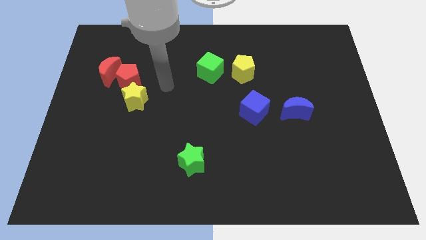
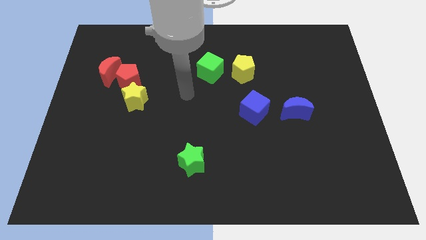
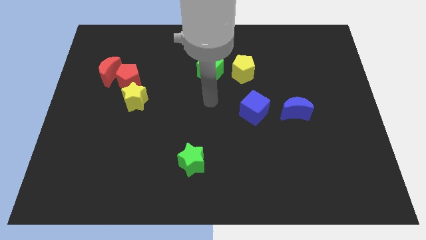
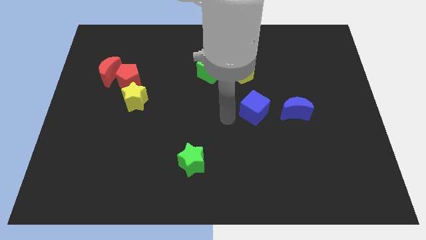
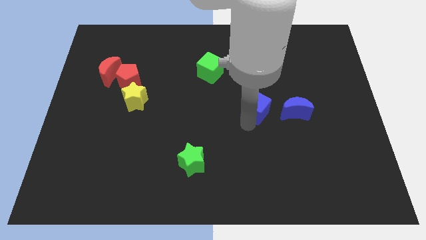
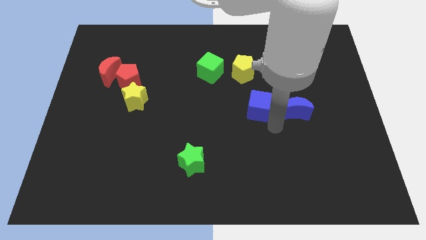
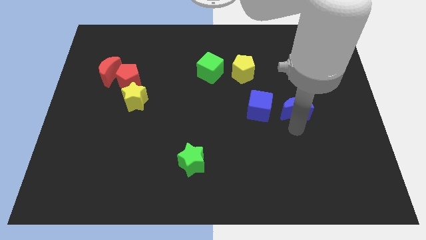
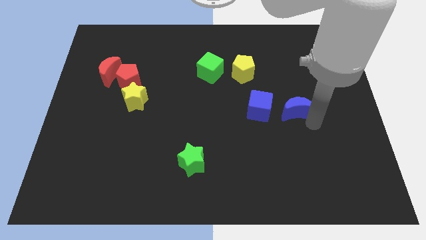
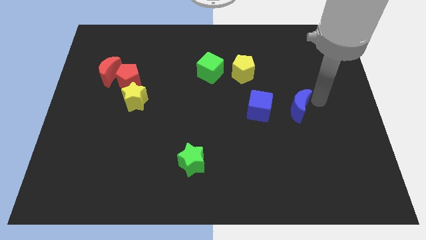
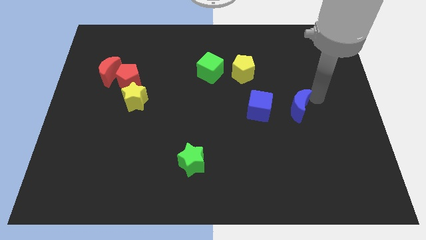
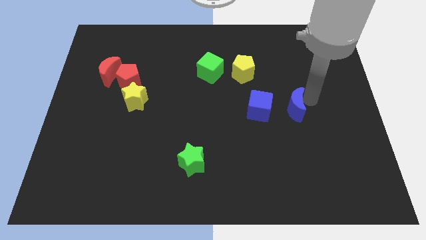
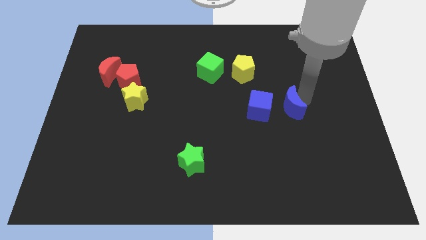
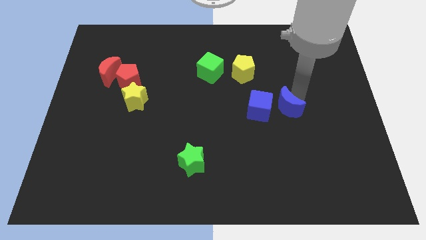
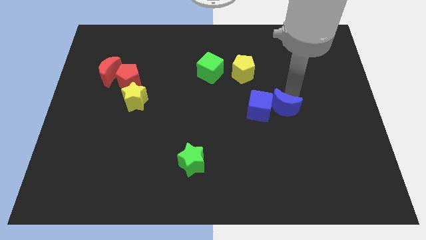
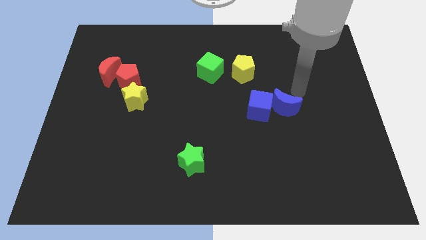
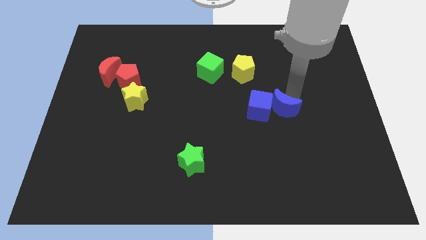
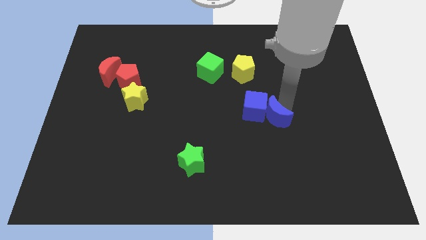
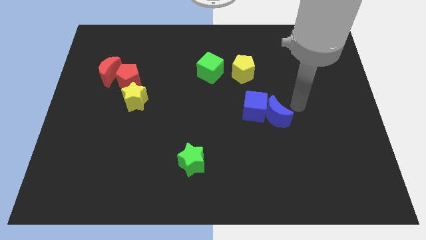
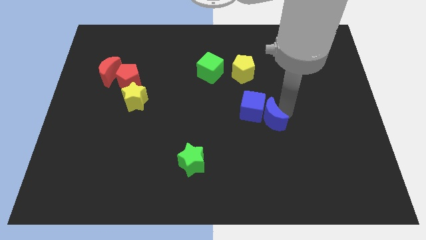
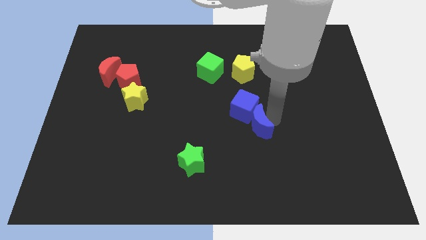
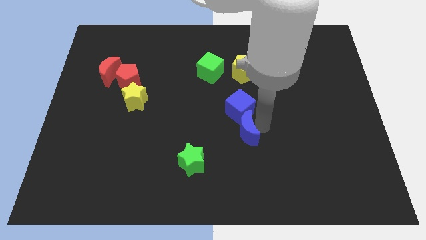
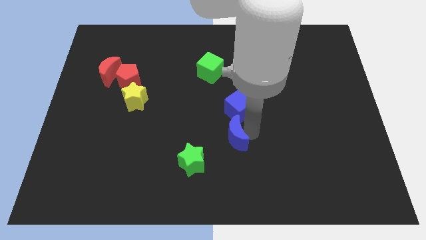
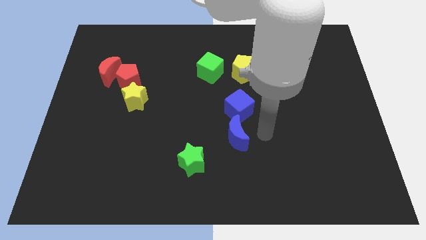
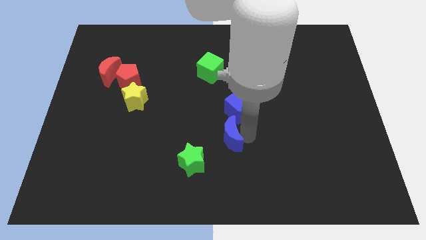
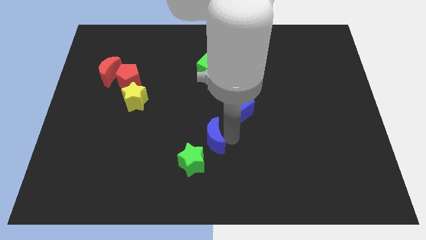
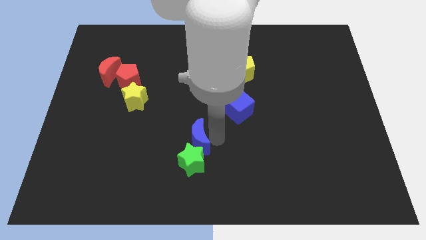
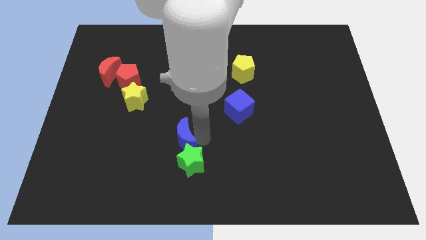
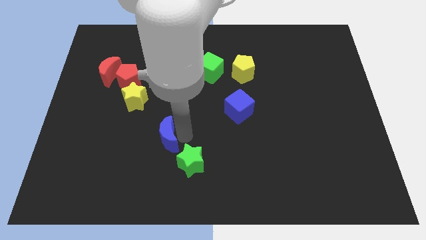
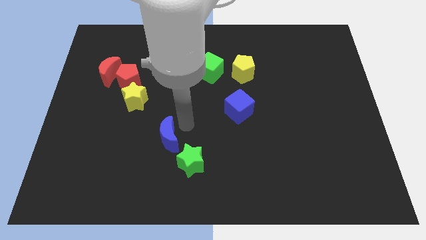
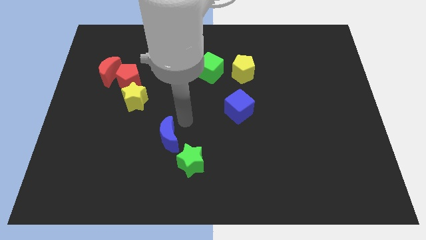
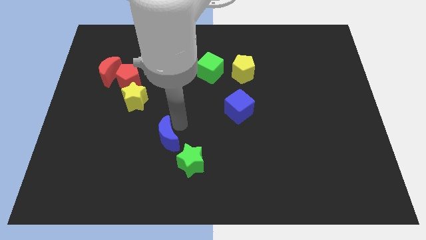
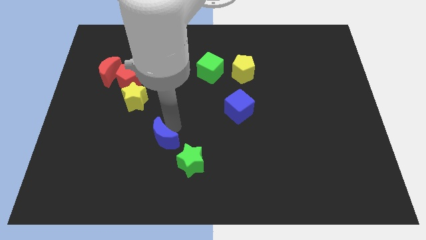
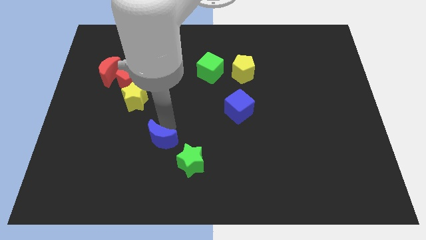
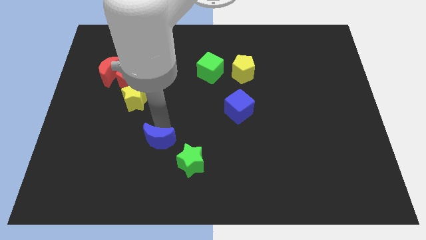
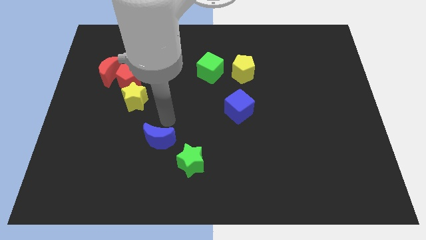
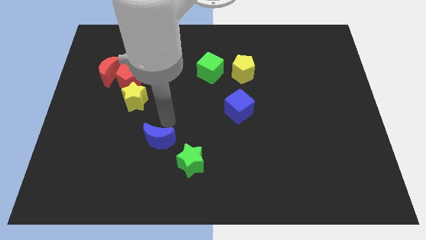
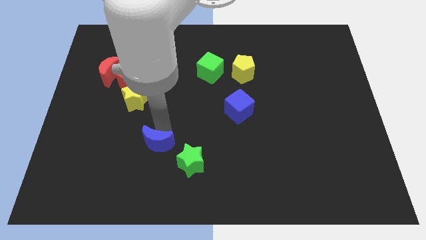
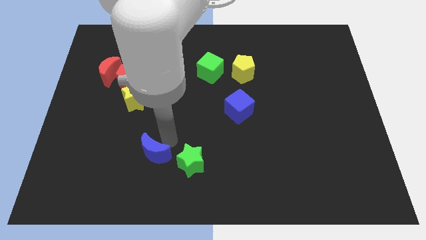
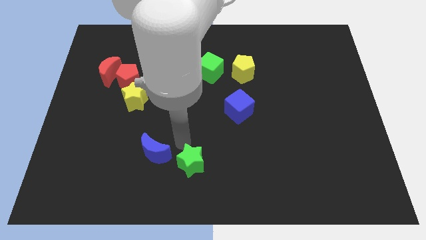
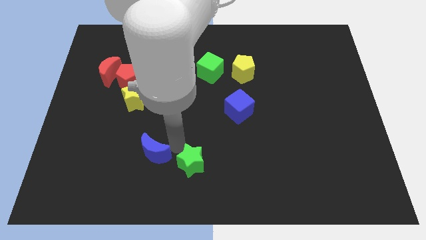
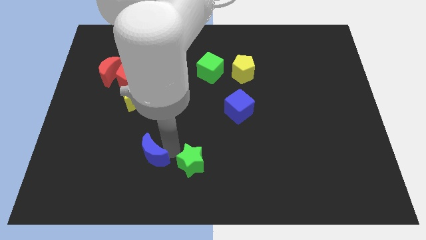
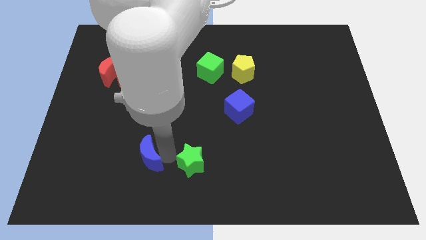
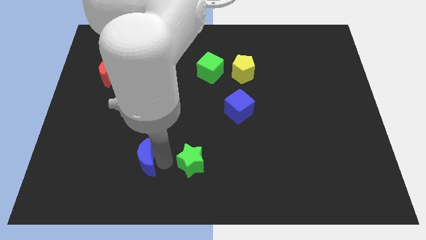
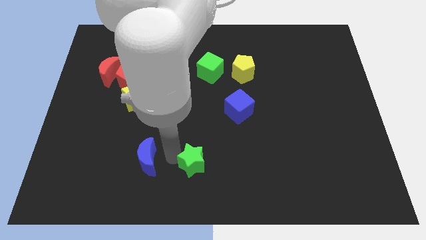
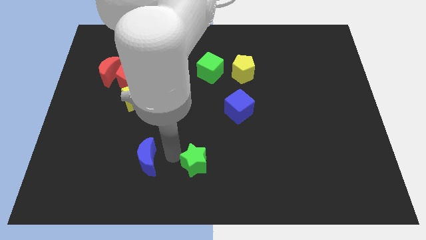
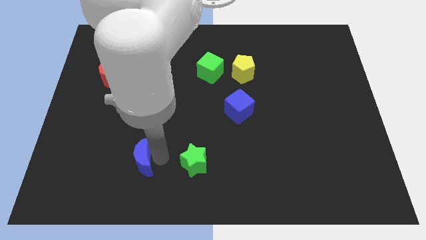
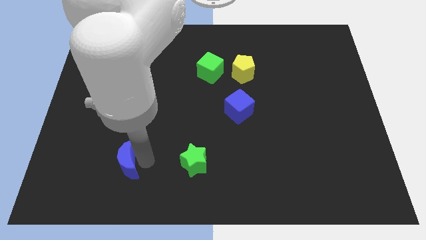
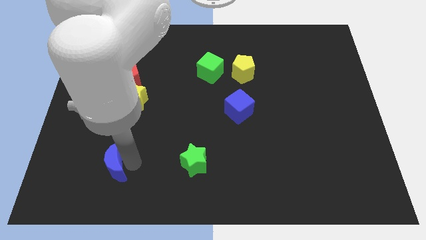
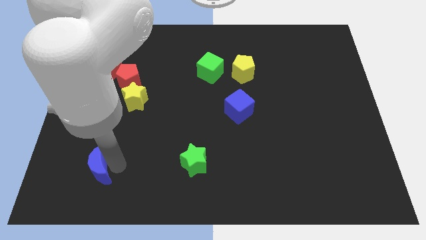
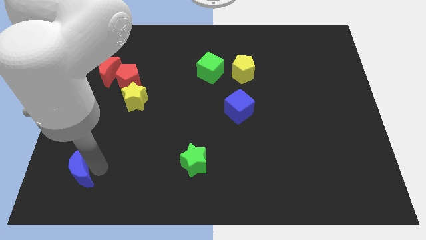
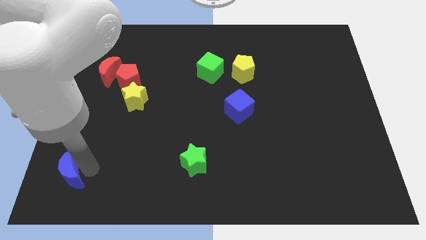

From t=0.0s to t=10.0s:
push the blue moon to the bottom left

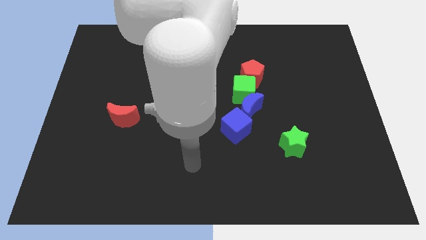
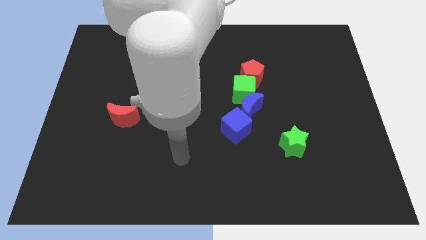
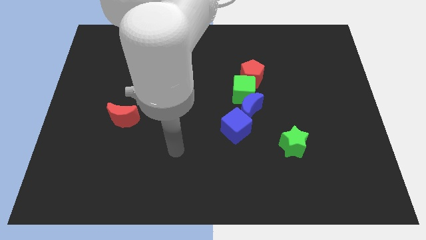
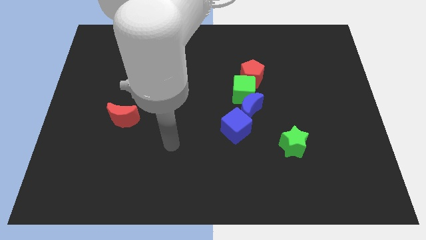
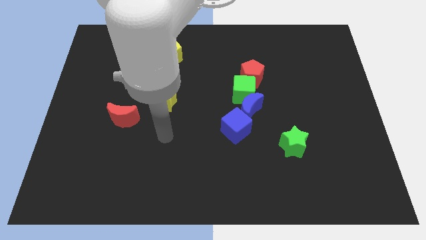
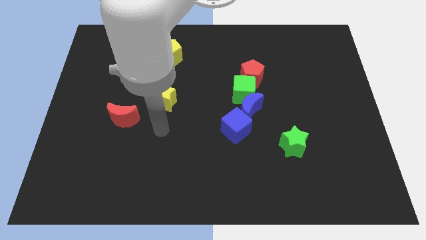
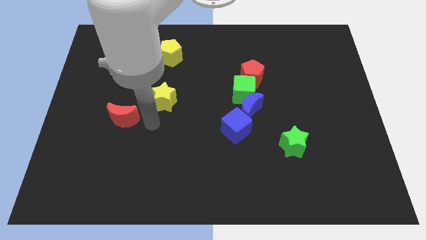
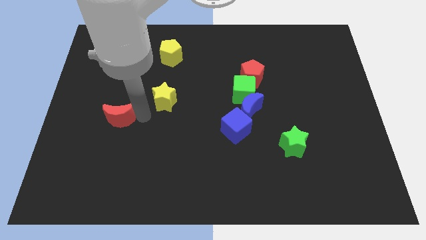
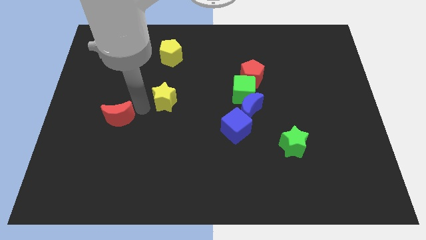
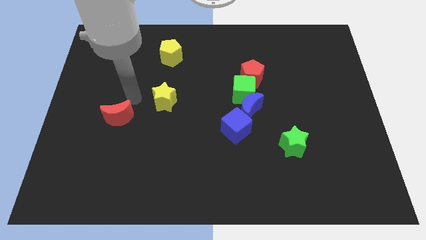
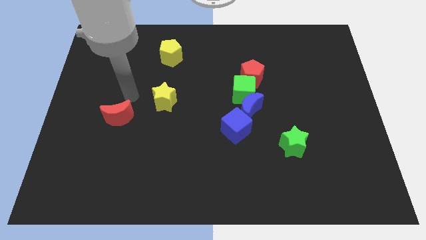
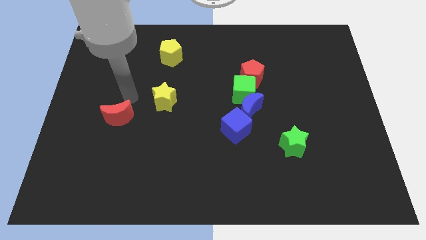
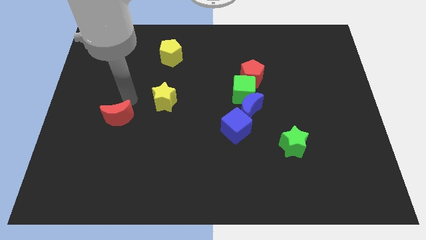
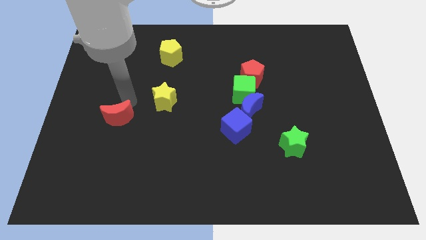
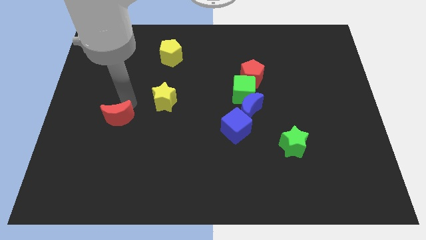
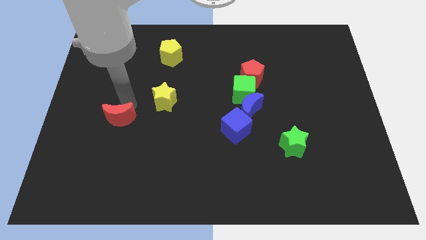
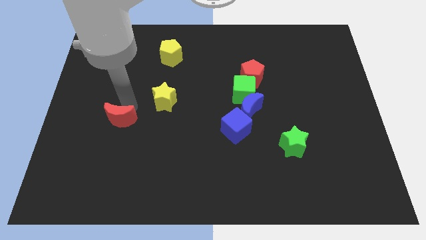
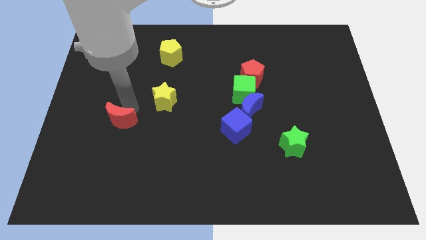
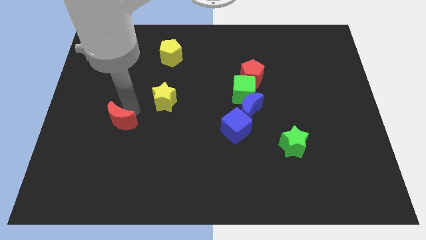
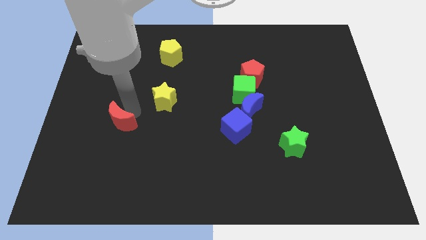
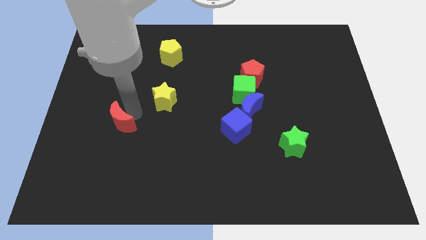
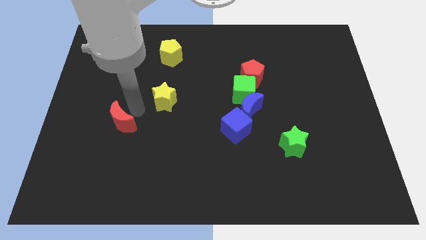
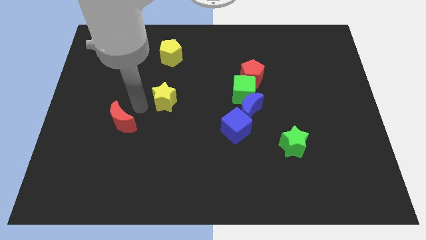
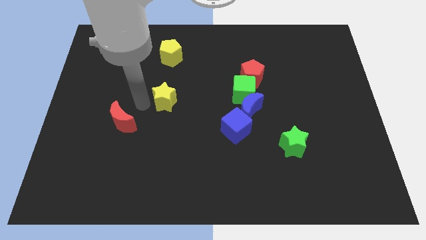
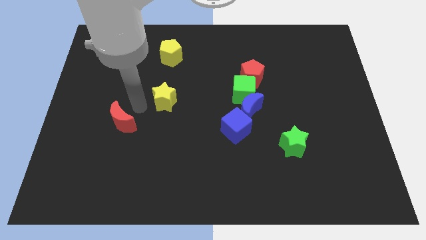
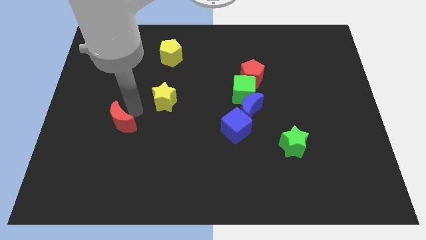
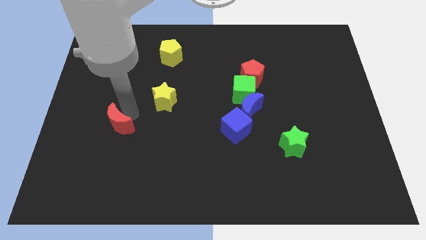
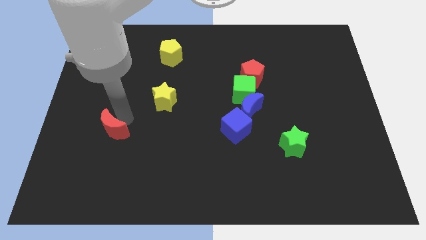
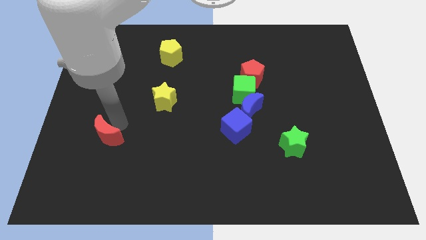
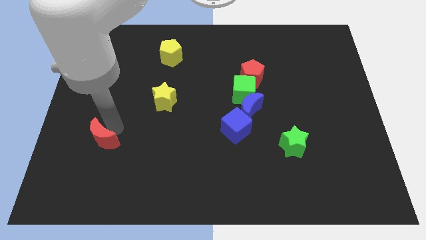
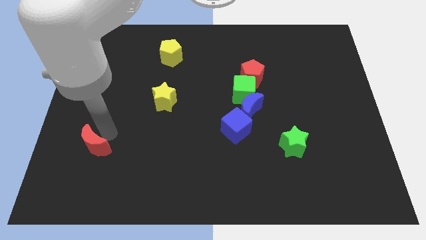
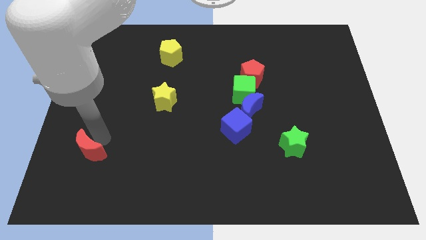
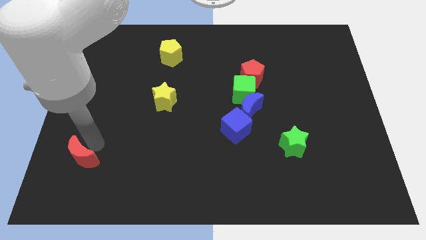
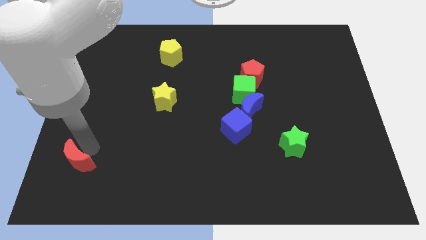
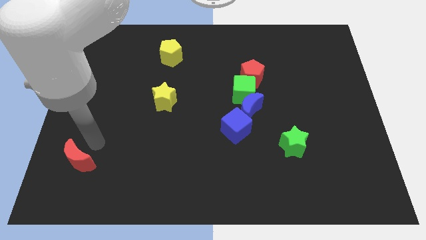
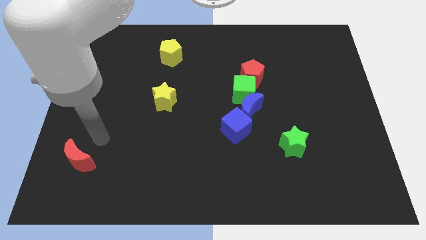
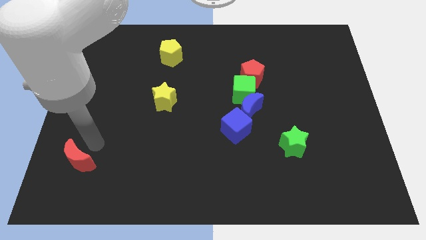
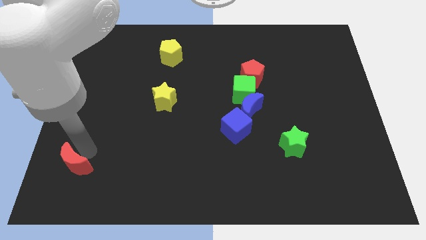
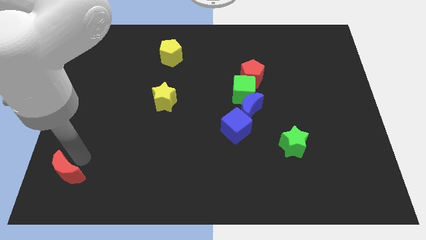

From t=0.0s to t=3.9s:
push the red moon to the bottom left
